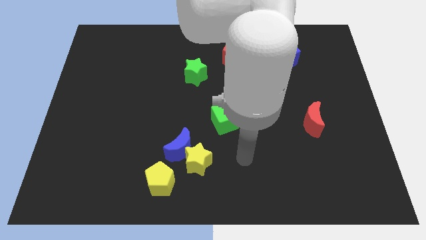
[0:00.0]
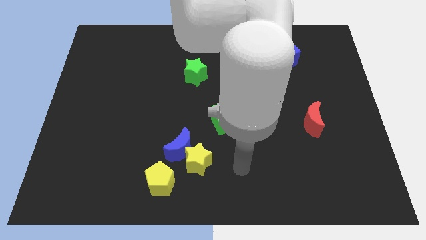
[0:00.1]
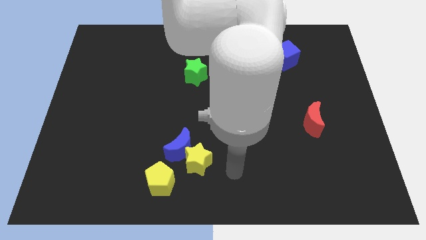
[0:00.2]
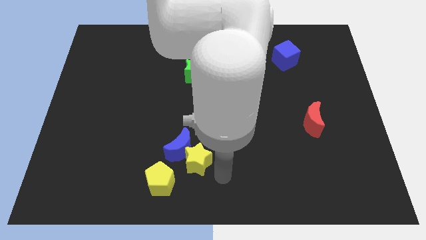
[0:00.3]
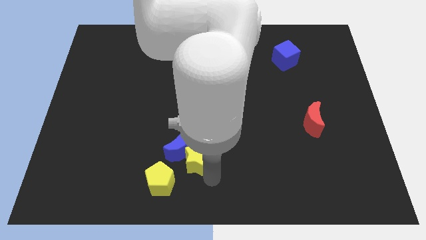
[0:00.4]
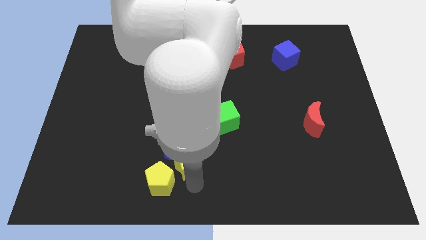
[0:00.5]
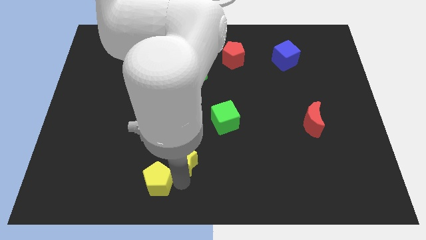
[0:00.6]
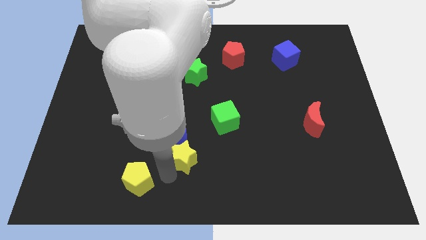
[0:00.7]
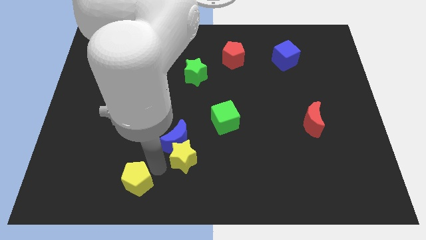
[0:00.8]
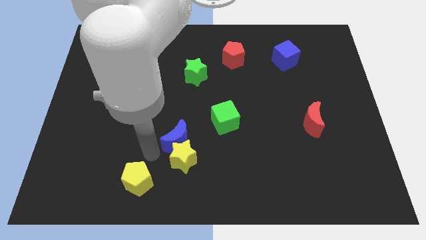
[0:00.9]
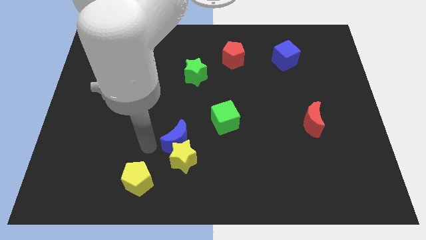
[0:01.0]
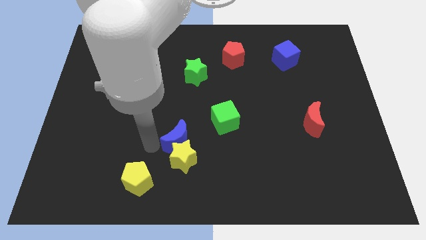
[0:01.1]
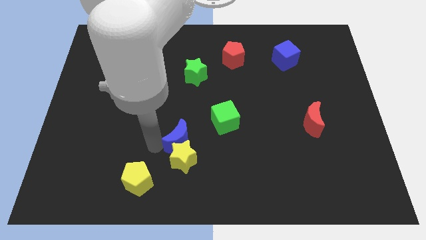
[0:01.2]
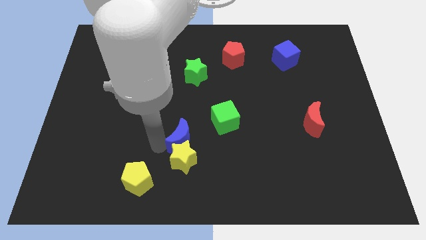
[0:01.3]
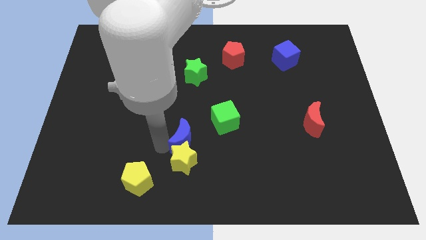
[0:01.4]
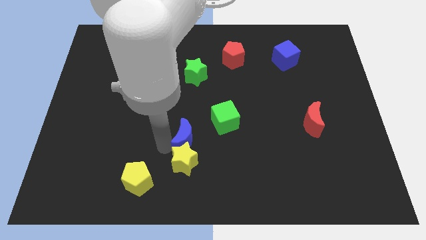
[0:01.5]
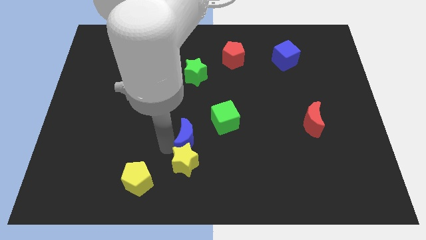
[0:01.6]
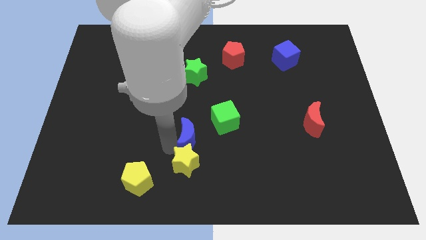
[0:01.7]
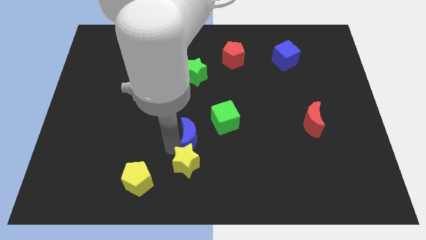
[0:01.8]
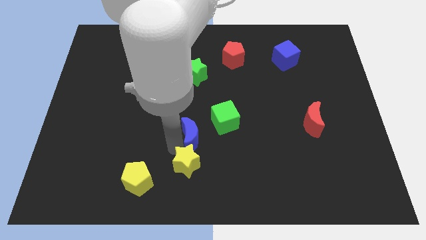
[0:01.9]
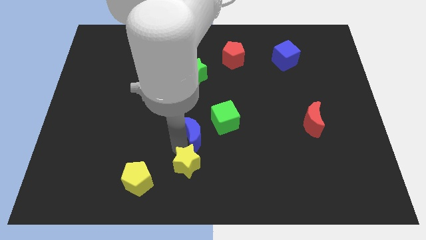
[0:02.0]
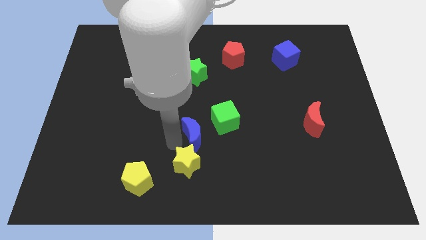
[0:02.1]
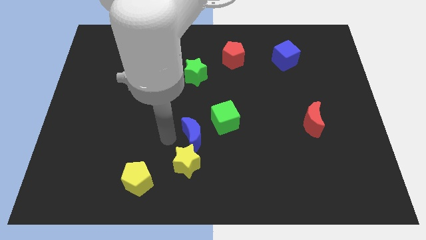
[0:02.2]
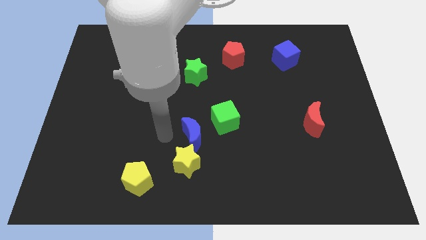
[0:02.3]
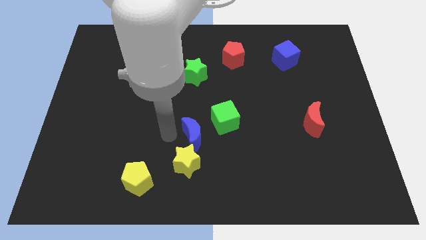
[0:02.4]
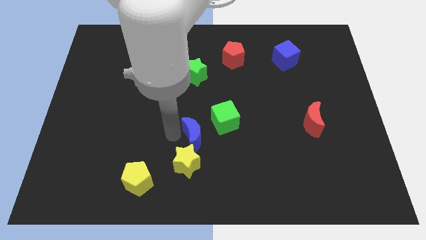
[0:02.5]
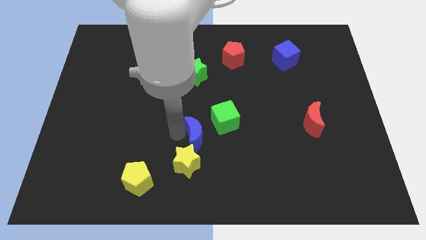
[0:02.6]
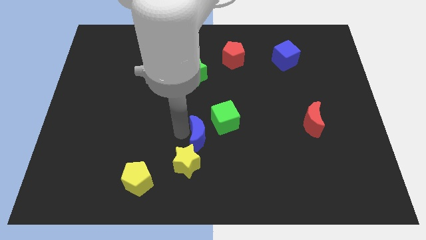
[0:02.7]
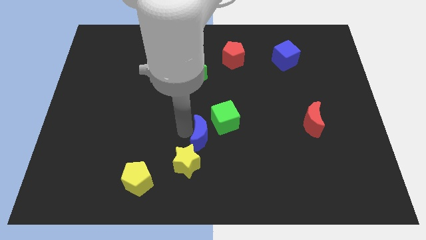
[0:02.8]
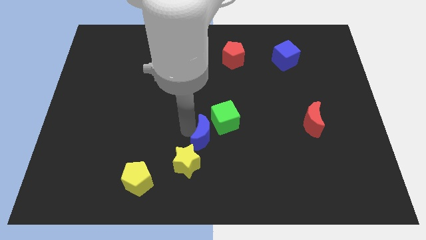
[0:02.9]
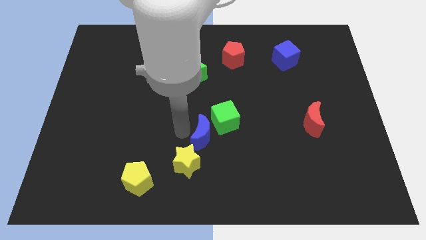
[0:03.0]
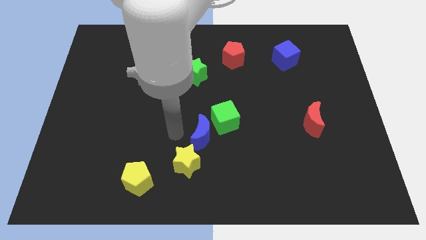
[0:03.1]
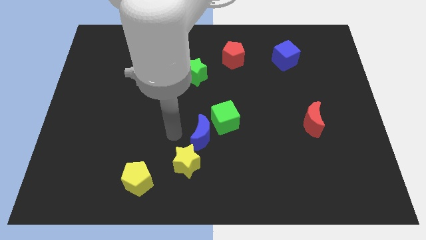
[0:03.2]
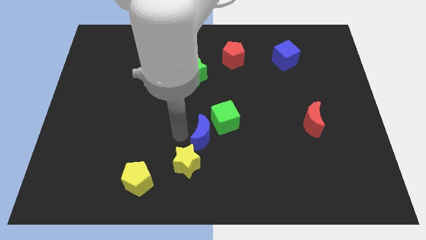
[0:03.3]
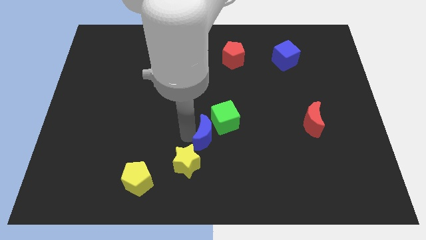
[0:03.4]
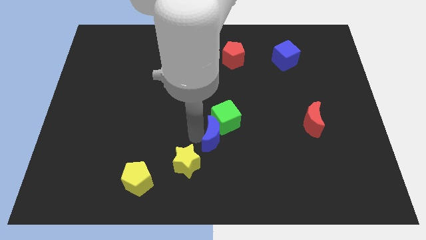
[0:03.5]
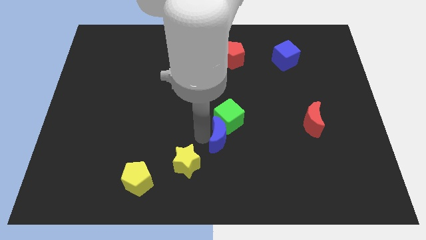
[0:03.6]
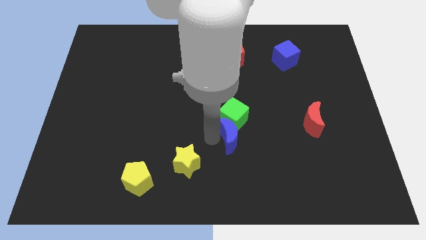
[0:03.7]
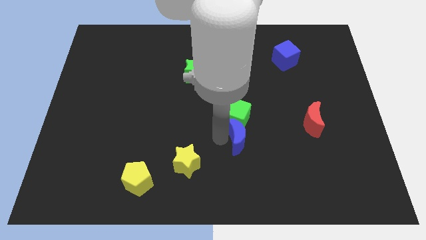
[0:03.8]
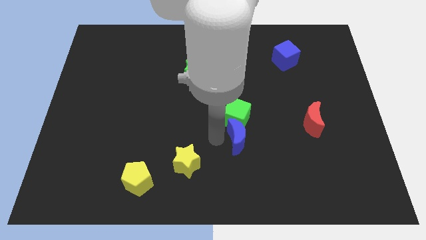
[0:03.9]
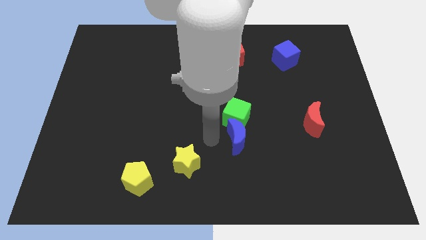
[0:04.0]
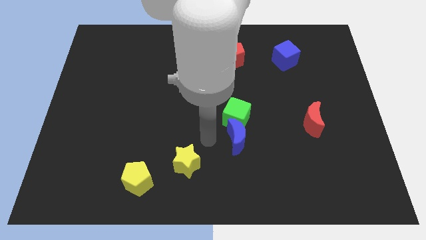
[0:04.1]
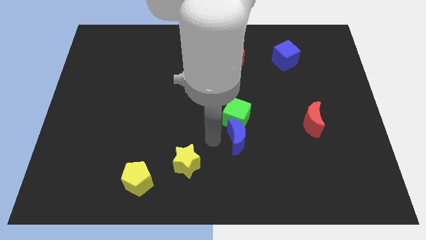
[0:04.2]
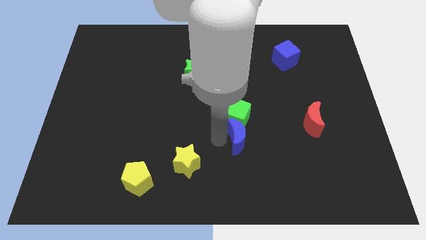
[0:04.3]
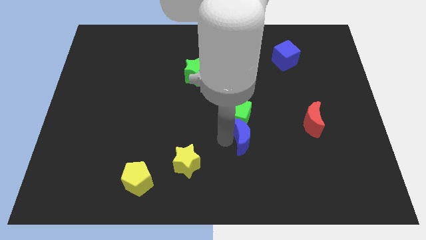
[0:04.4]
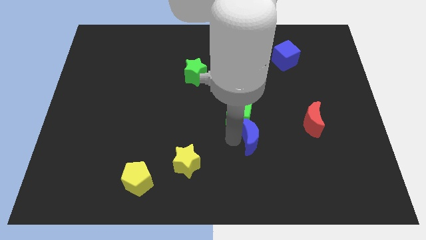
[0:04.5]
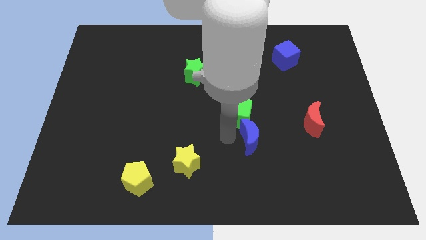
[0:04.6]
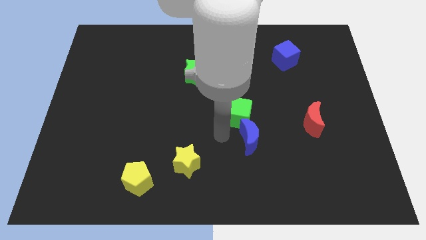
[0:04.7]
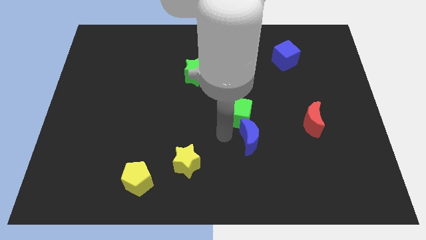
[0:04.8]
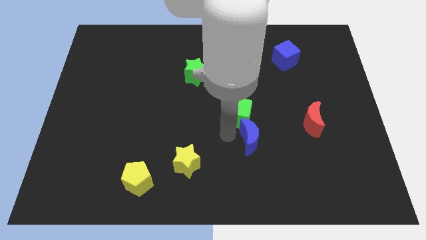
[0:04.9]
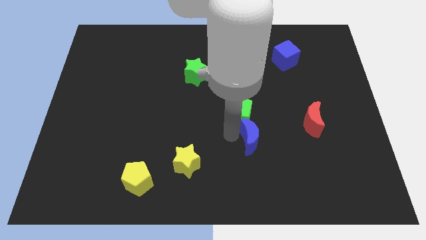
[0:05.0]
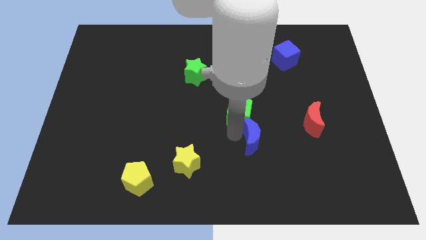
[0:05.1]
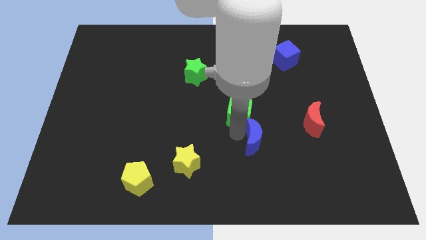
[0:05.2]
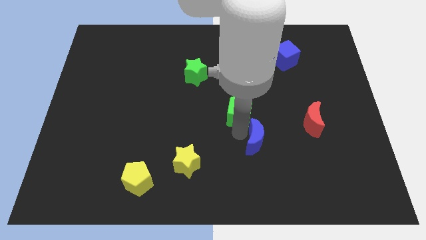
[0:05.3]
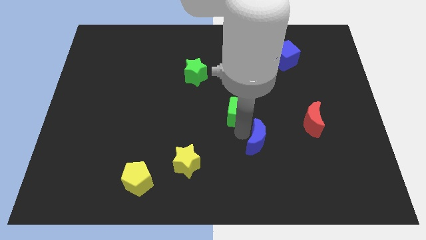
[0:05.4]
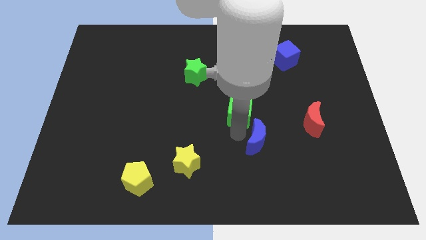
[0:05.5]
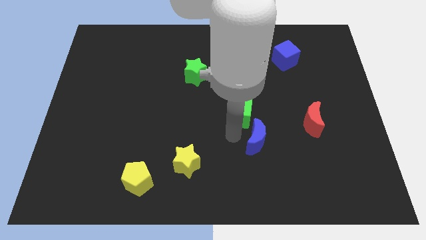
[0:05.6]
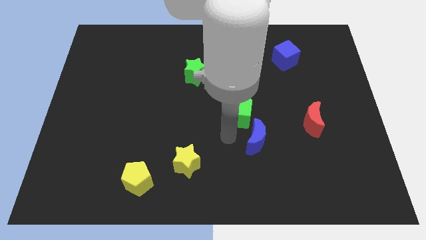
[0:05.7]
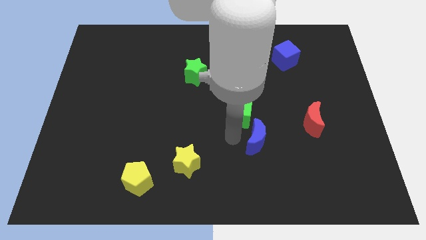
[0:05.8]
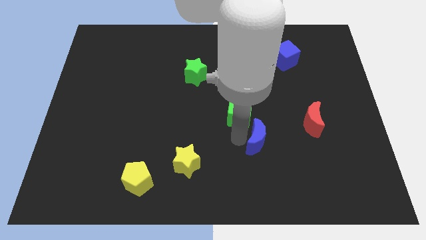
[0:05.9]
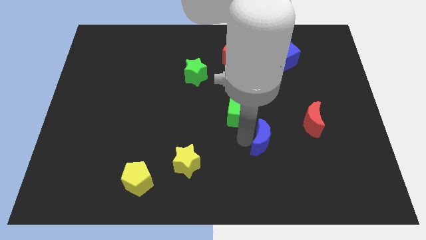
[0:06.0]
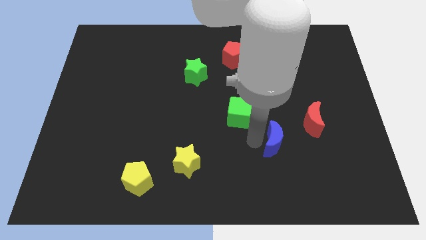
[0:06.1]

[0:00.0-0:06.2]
push the blue moon to the right

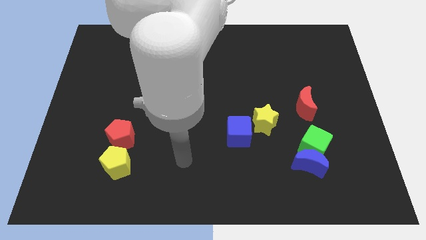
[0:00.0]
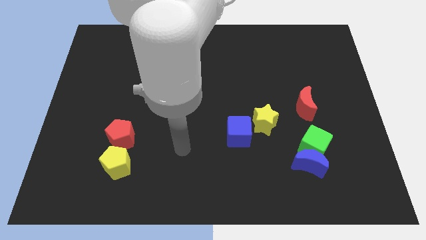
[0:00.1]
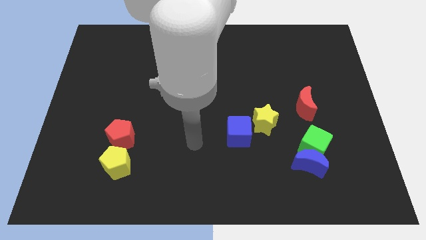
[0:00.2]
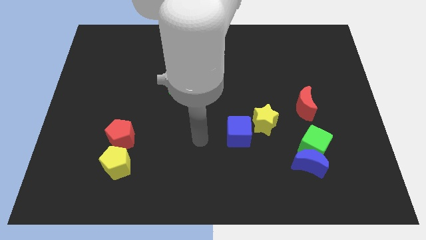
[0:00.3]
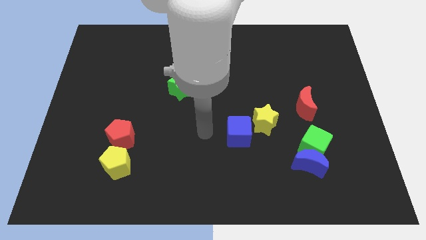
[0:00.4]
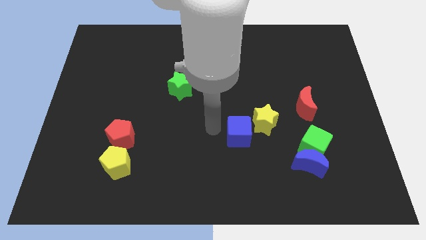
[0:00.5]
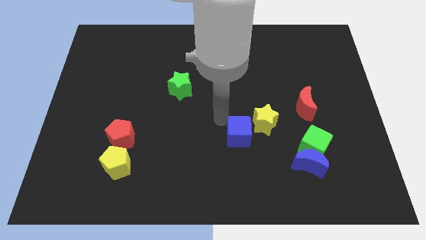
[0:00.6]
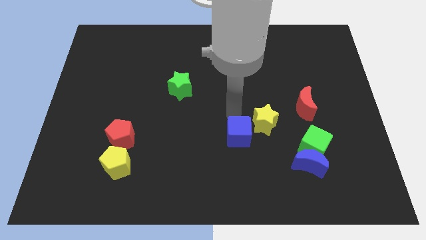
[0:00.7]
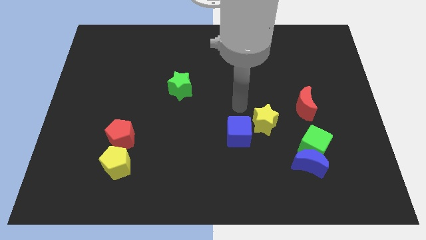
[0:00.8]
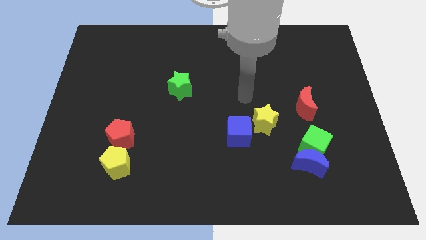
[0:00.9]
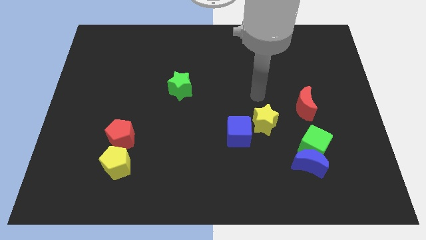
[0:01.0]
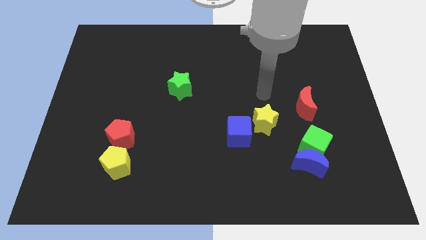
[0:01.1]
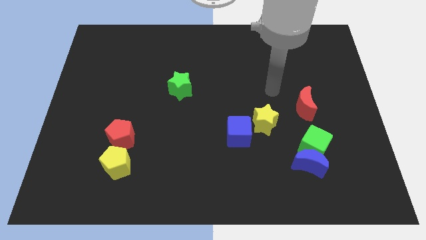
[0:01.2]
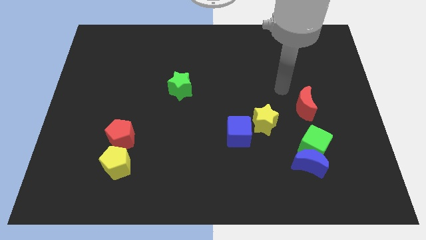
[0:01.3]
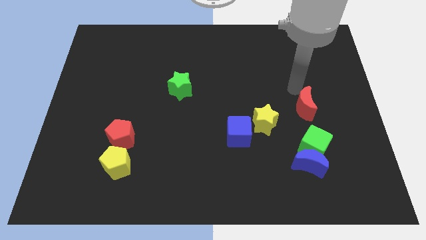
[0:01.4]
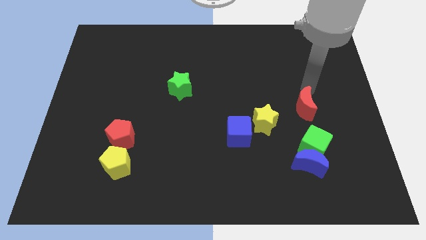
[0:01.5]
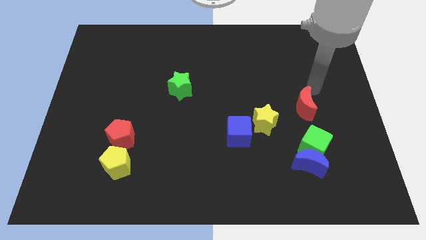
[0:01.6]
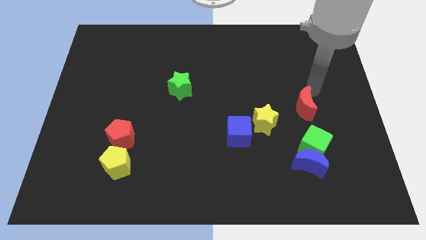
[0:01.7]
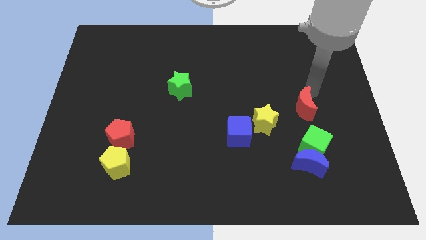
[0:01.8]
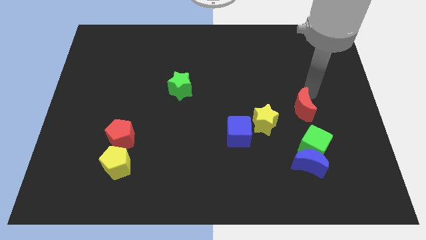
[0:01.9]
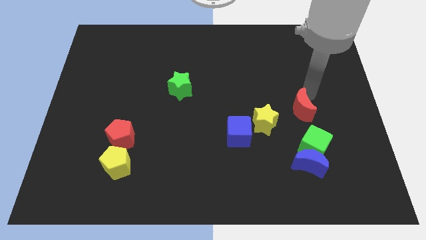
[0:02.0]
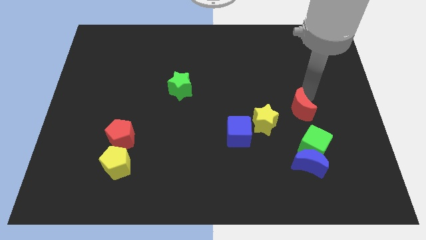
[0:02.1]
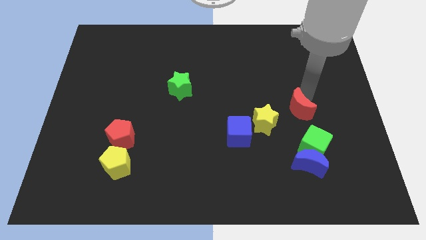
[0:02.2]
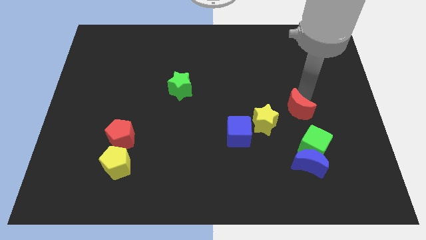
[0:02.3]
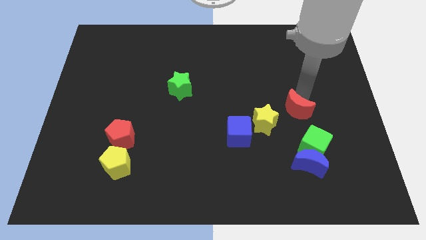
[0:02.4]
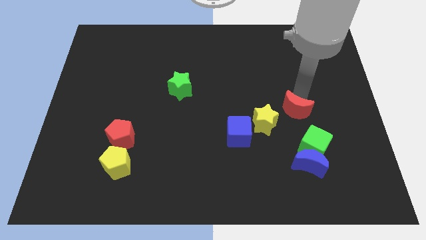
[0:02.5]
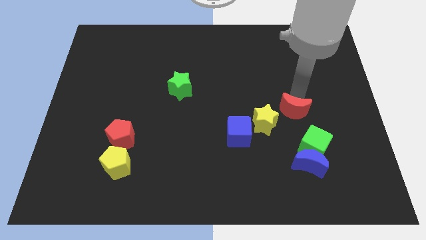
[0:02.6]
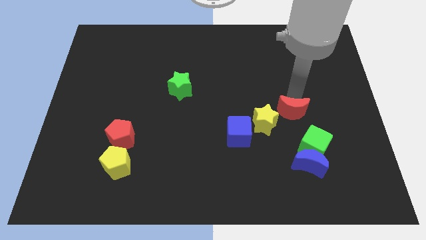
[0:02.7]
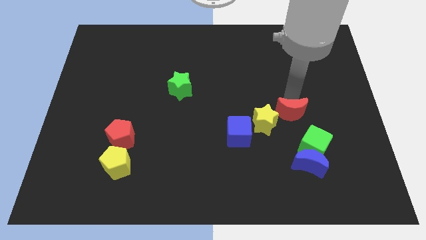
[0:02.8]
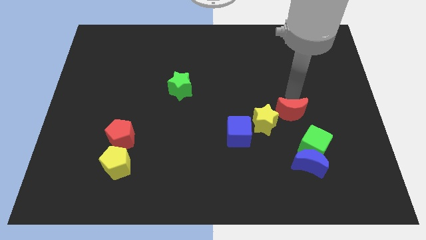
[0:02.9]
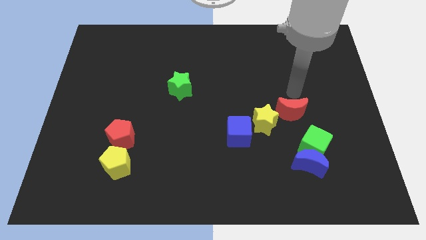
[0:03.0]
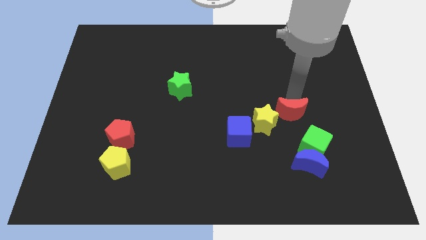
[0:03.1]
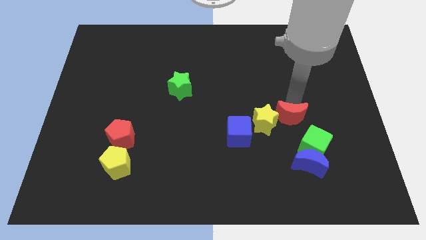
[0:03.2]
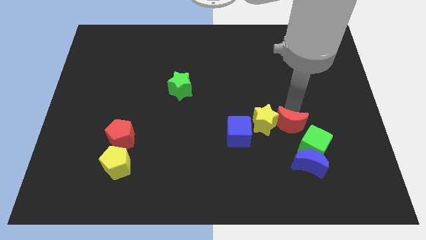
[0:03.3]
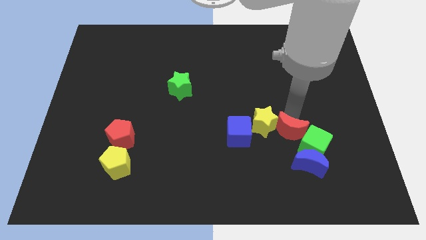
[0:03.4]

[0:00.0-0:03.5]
slightly slide the red moon down and then left
